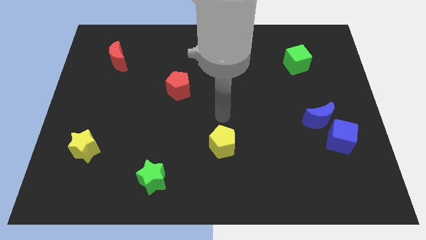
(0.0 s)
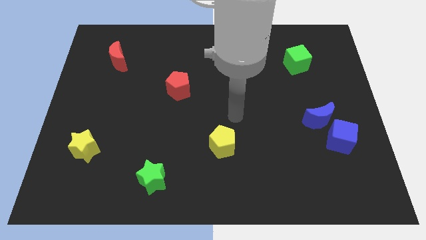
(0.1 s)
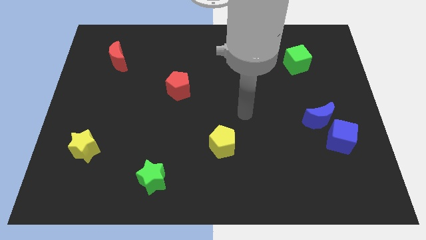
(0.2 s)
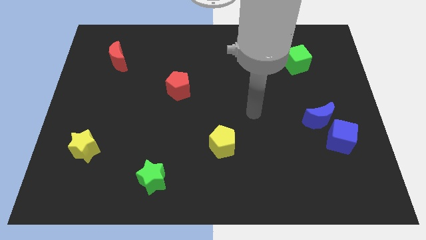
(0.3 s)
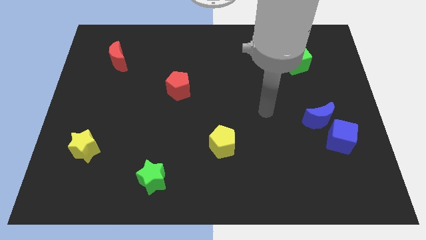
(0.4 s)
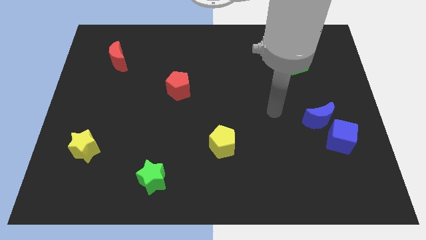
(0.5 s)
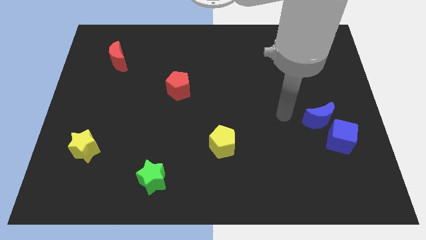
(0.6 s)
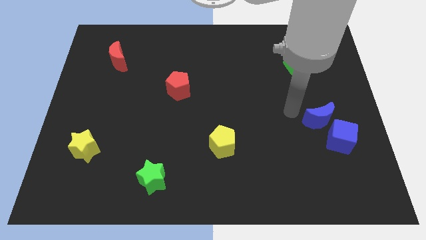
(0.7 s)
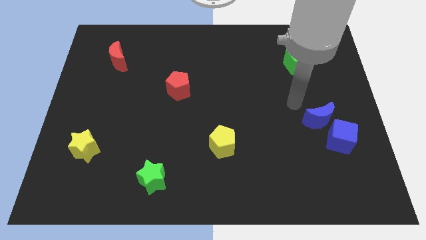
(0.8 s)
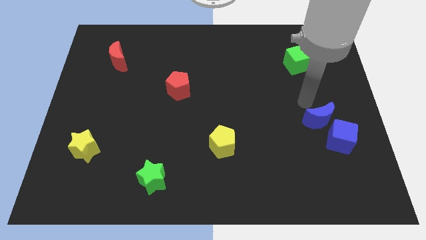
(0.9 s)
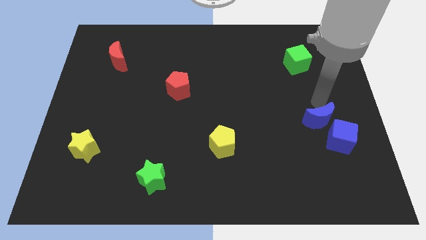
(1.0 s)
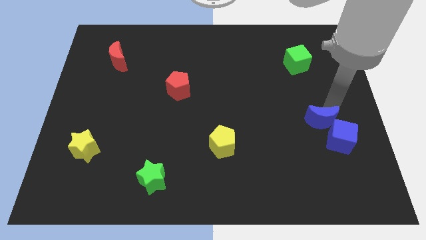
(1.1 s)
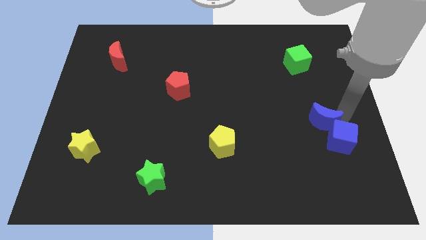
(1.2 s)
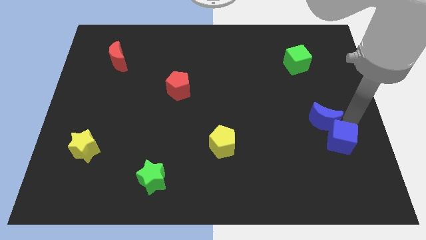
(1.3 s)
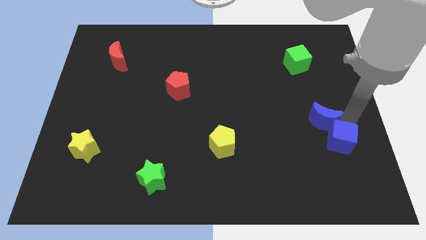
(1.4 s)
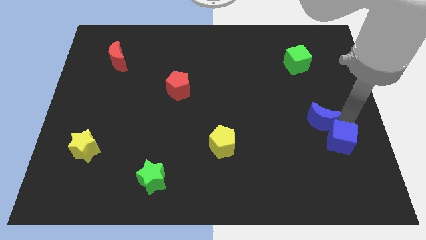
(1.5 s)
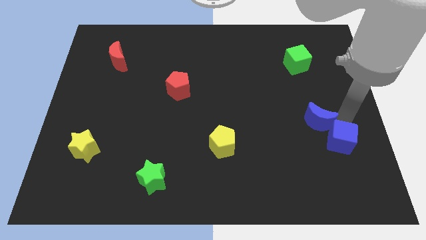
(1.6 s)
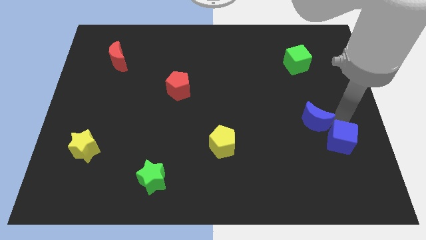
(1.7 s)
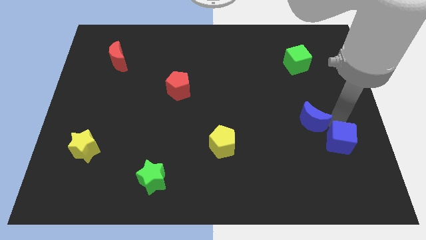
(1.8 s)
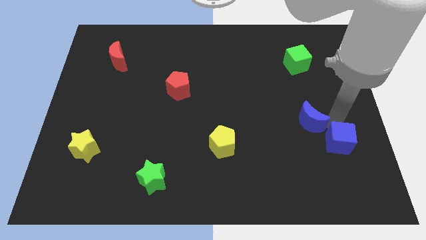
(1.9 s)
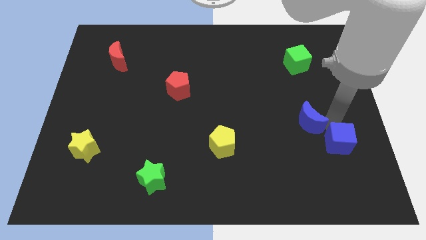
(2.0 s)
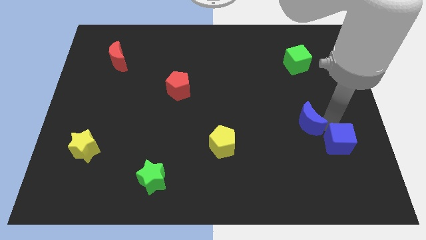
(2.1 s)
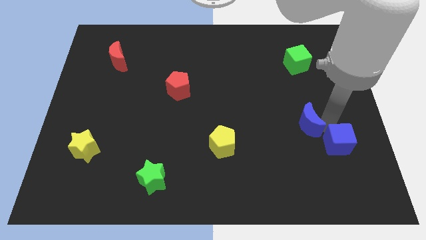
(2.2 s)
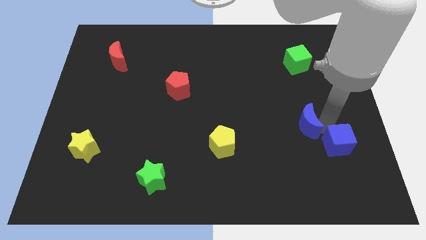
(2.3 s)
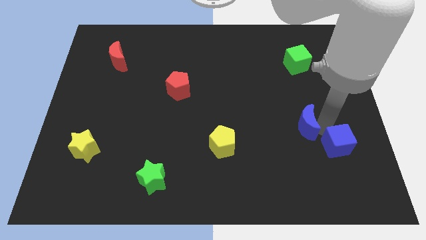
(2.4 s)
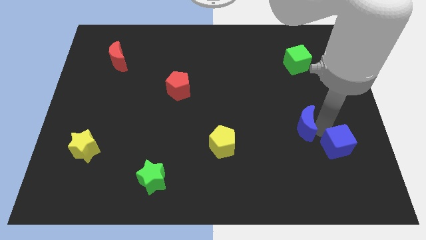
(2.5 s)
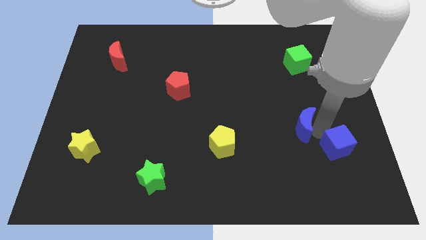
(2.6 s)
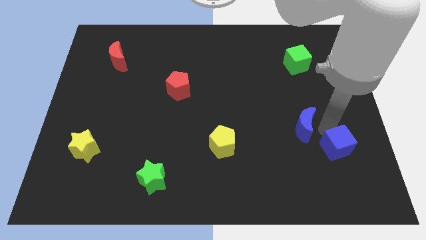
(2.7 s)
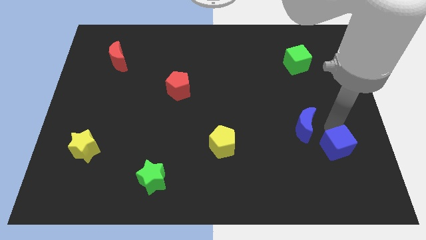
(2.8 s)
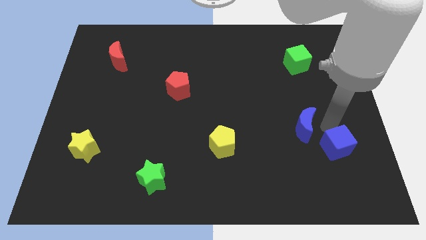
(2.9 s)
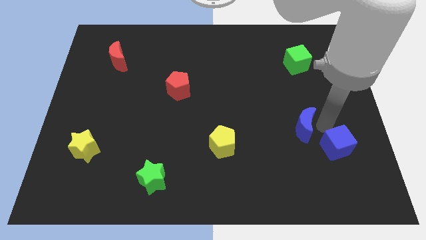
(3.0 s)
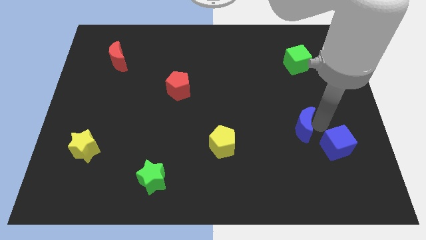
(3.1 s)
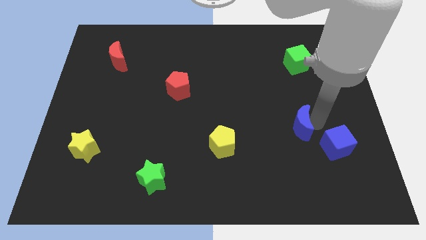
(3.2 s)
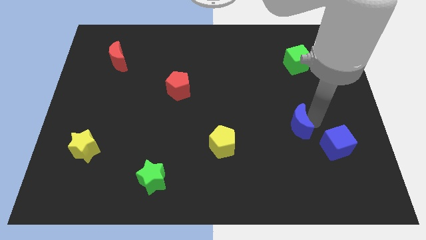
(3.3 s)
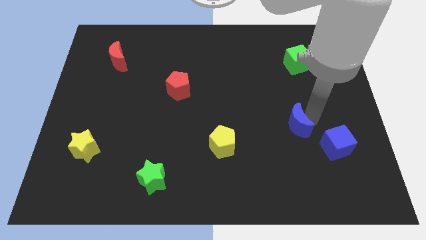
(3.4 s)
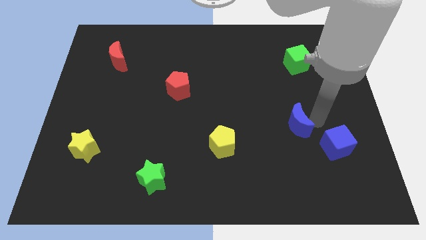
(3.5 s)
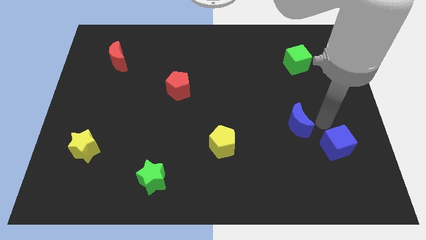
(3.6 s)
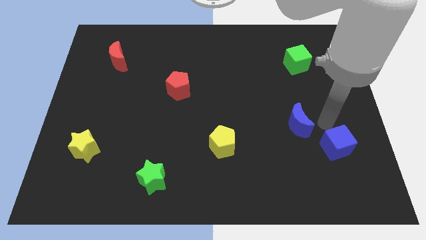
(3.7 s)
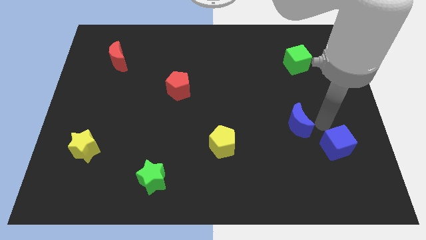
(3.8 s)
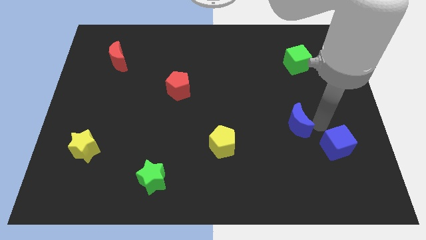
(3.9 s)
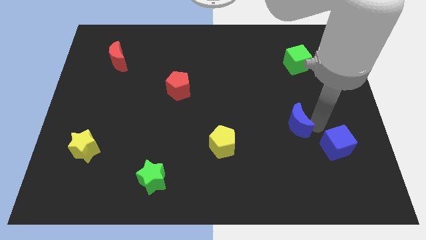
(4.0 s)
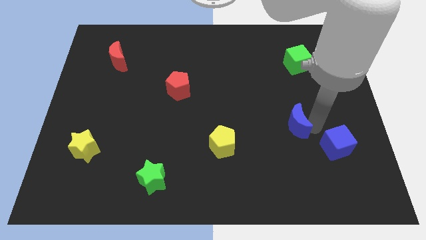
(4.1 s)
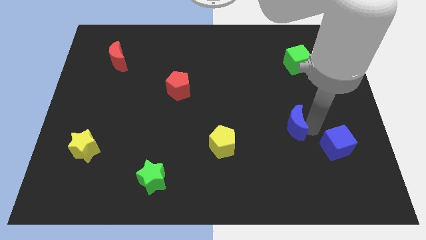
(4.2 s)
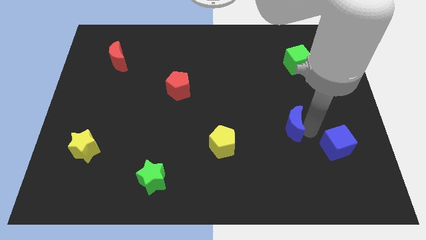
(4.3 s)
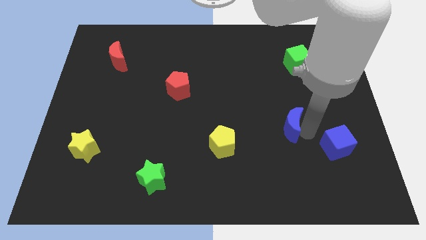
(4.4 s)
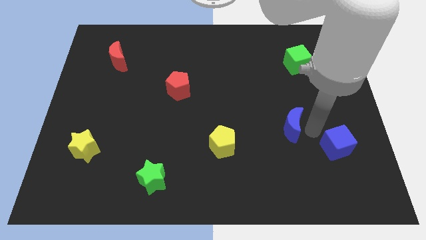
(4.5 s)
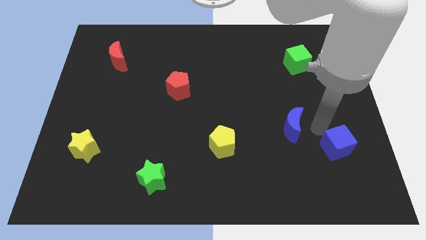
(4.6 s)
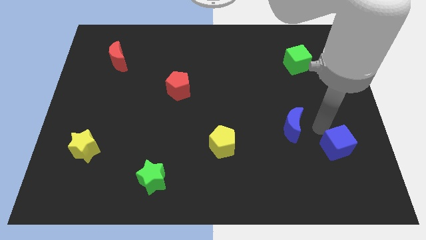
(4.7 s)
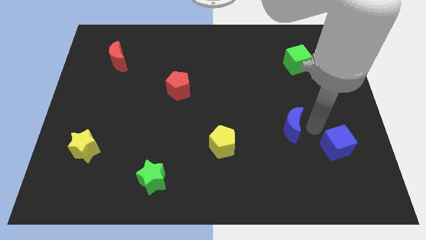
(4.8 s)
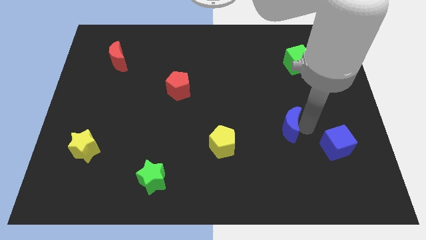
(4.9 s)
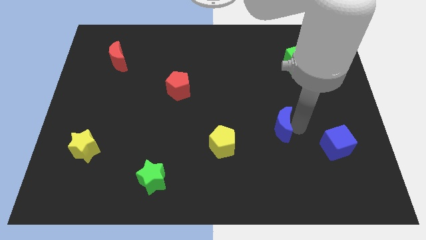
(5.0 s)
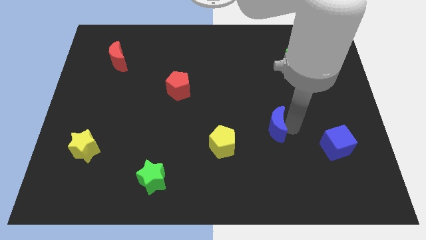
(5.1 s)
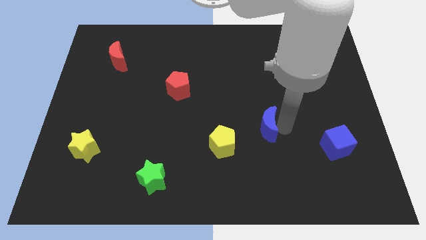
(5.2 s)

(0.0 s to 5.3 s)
put the blue moon to the top right of the yellow pentagon

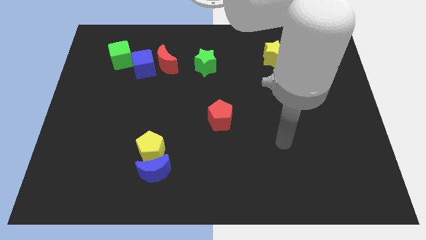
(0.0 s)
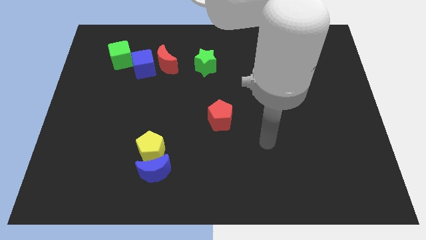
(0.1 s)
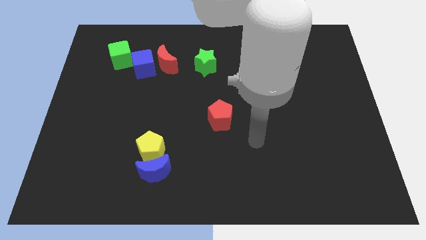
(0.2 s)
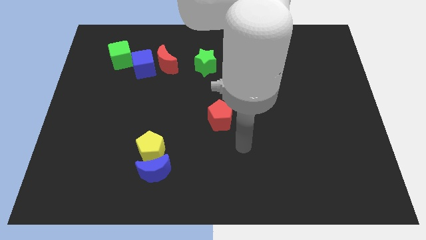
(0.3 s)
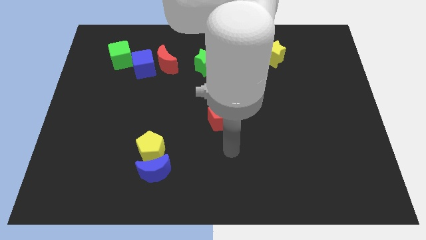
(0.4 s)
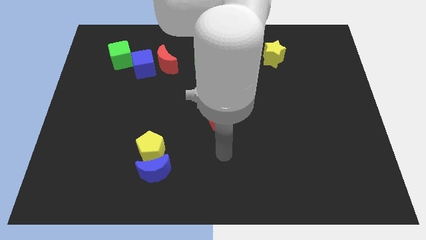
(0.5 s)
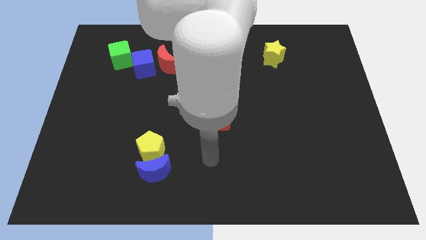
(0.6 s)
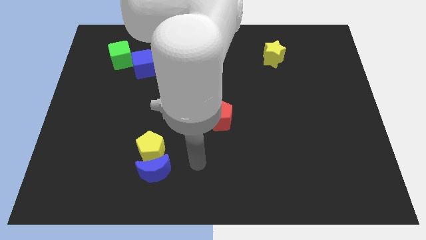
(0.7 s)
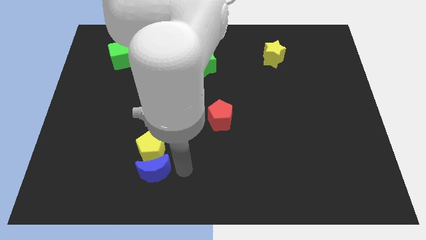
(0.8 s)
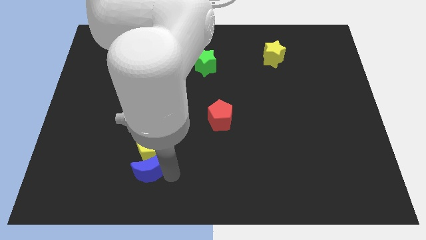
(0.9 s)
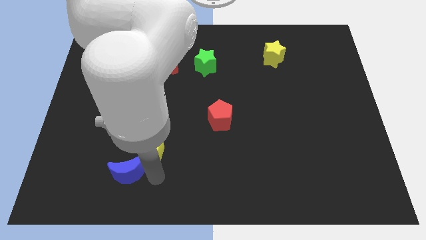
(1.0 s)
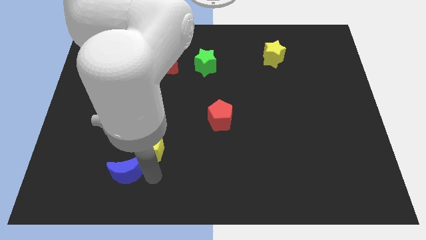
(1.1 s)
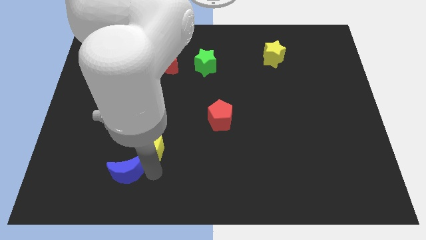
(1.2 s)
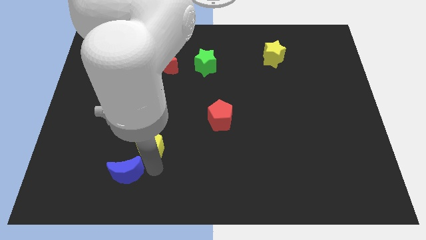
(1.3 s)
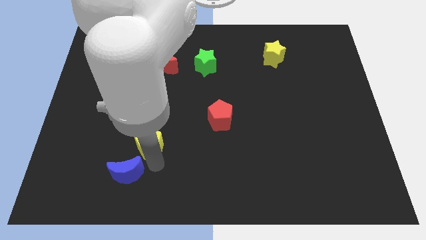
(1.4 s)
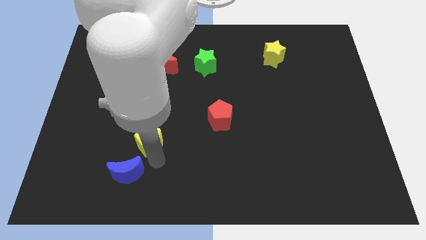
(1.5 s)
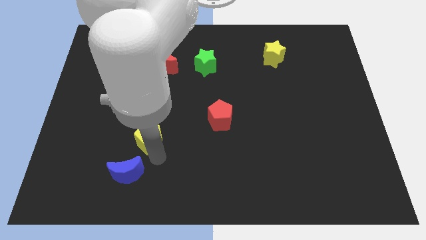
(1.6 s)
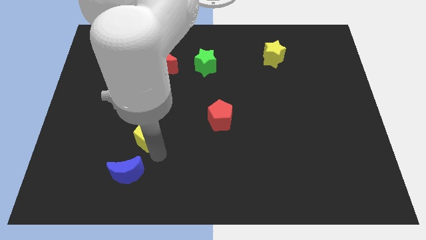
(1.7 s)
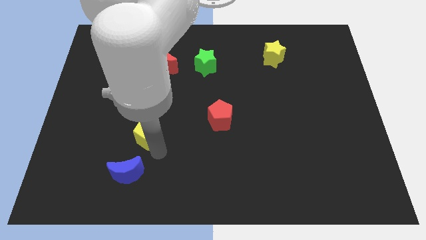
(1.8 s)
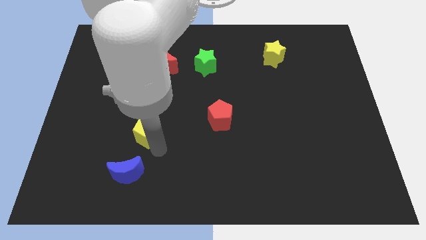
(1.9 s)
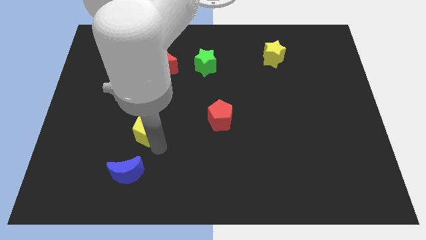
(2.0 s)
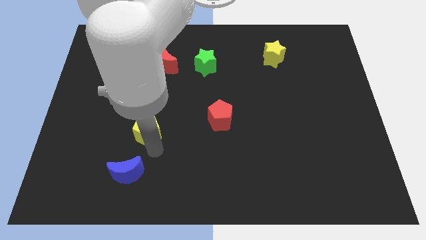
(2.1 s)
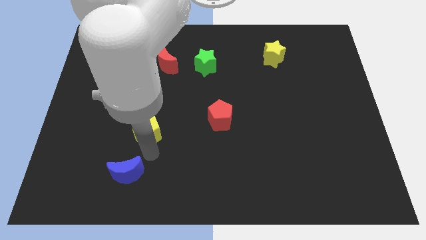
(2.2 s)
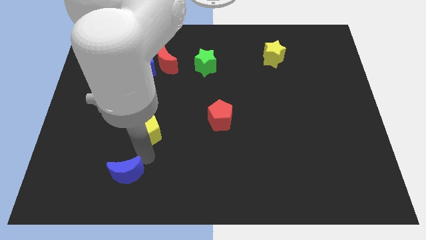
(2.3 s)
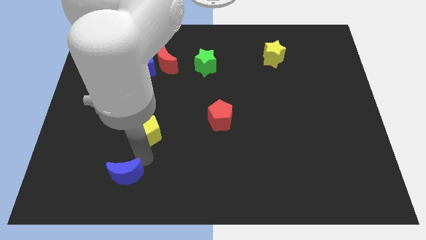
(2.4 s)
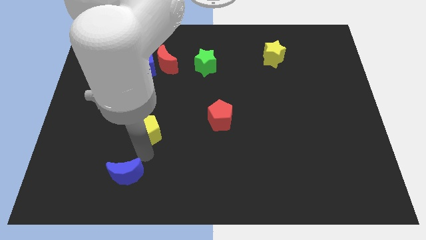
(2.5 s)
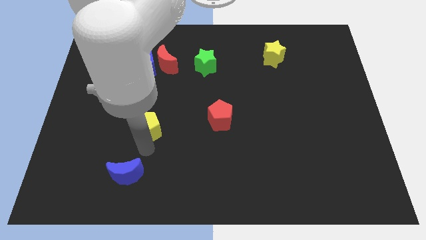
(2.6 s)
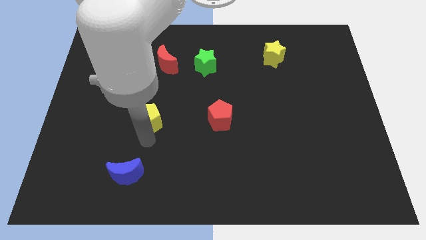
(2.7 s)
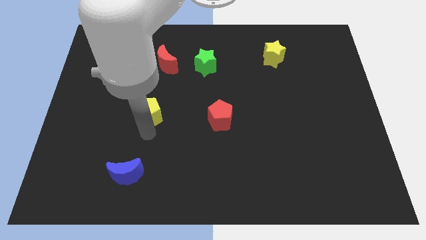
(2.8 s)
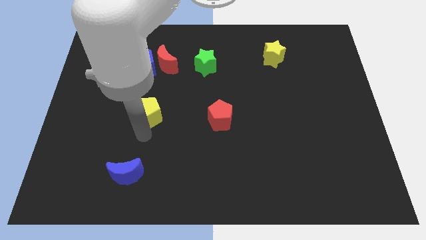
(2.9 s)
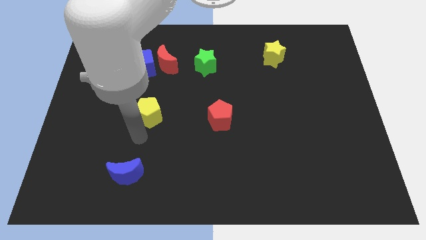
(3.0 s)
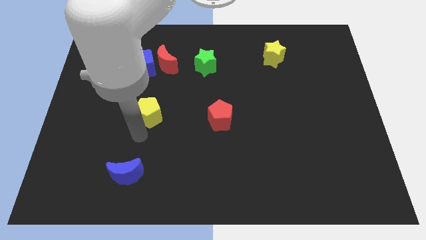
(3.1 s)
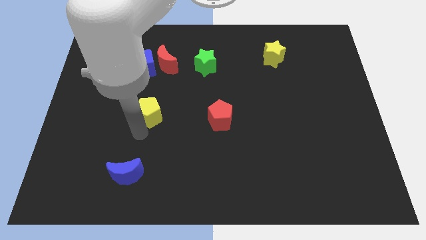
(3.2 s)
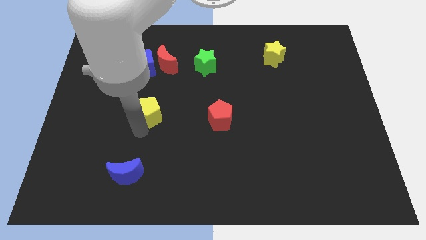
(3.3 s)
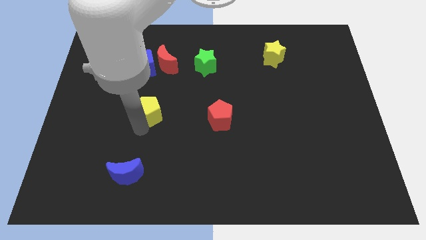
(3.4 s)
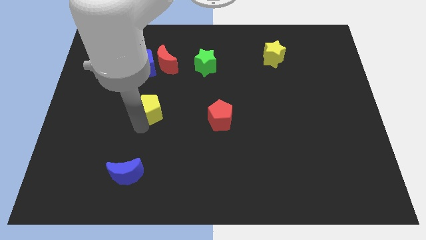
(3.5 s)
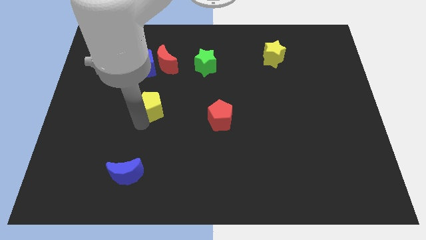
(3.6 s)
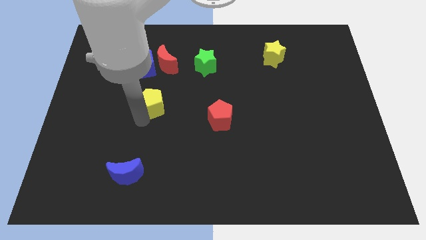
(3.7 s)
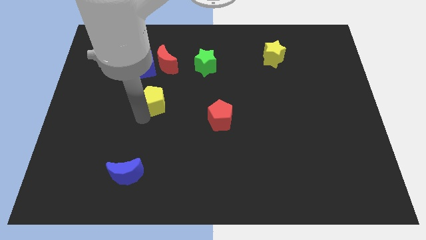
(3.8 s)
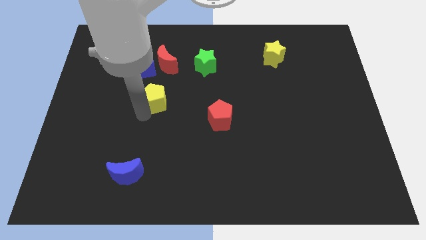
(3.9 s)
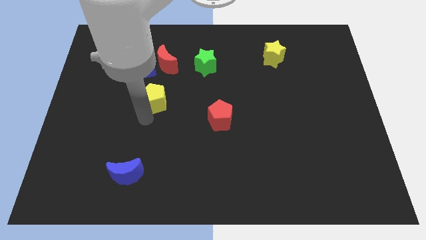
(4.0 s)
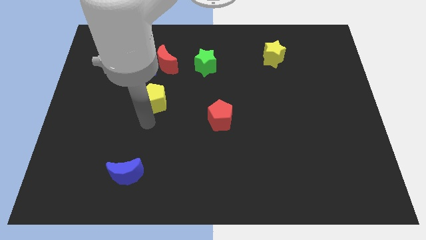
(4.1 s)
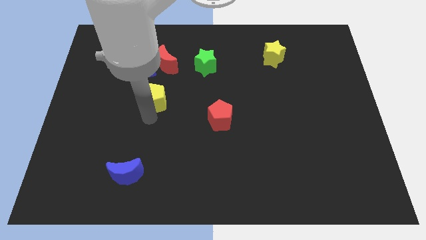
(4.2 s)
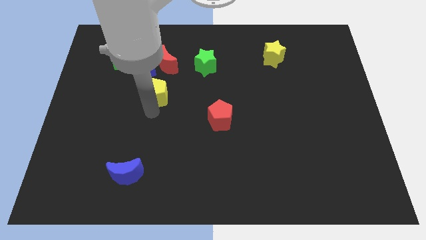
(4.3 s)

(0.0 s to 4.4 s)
move the yellow pentagon diagonally down and to the right of the blue cube
